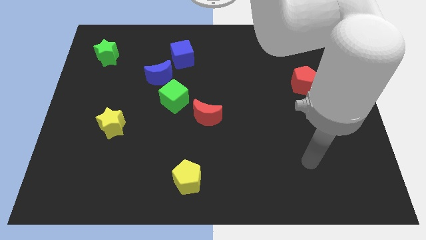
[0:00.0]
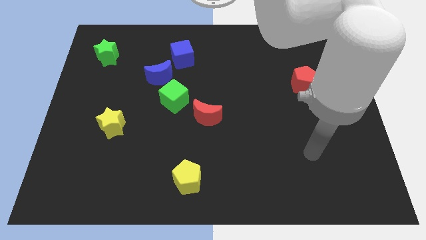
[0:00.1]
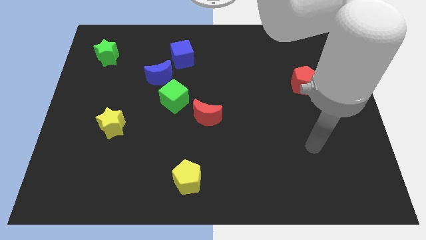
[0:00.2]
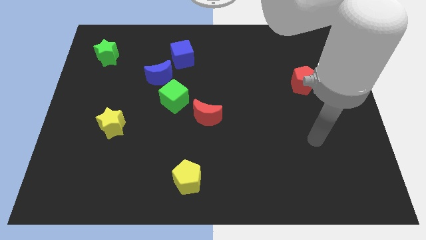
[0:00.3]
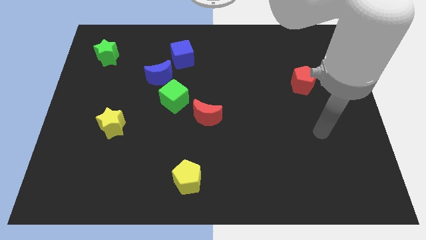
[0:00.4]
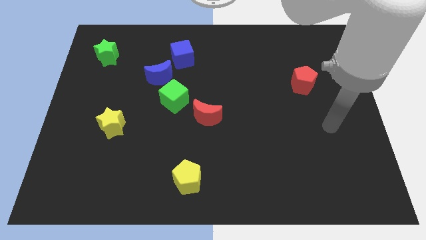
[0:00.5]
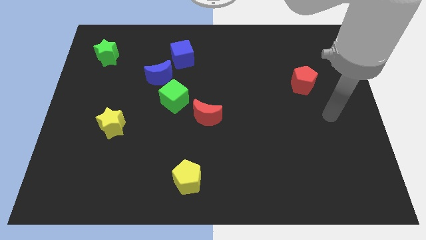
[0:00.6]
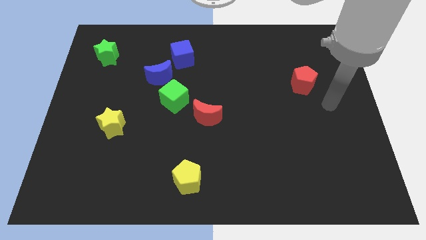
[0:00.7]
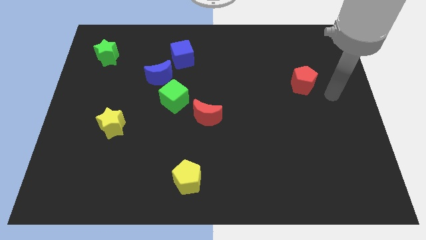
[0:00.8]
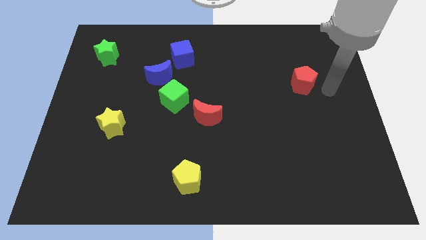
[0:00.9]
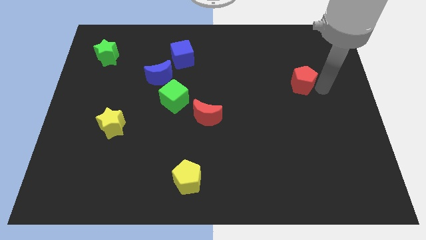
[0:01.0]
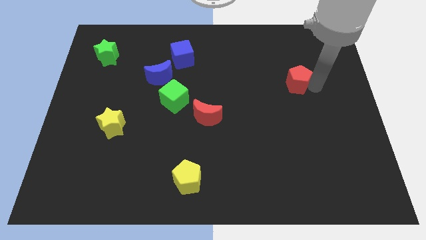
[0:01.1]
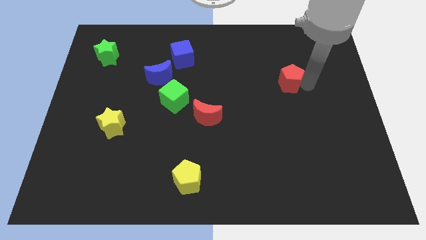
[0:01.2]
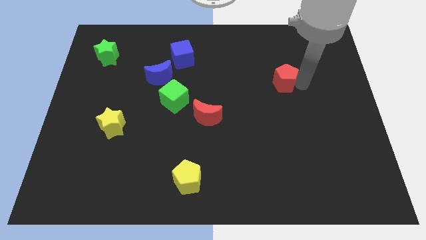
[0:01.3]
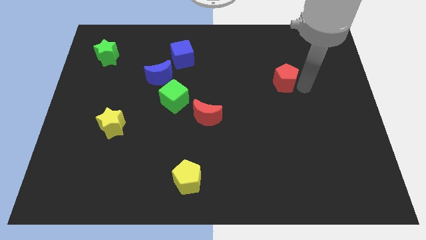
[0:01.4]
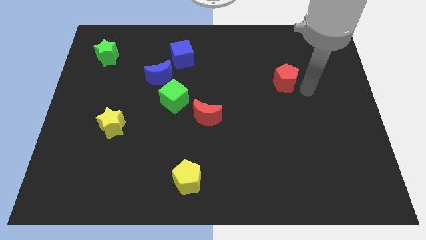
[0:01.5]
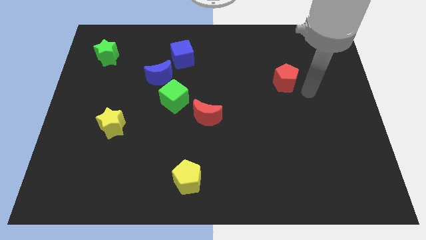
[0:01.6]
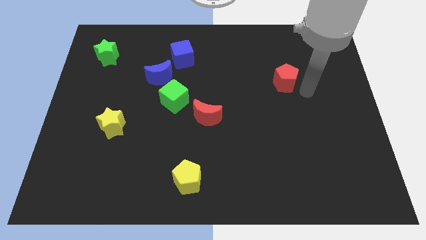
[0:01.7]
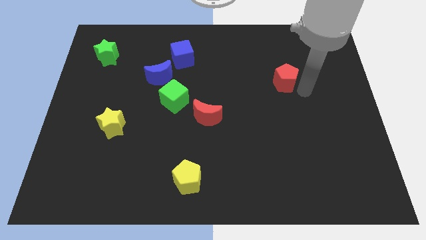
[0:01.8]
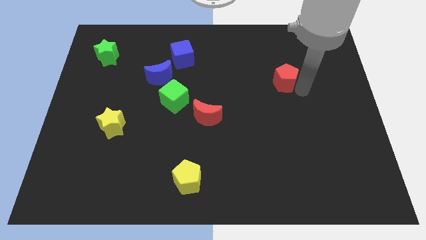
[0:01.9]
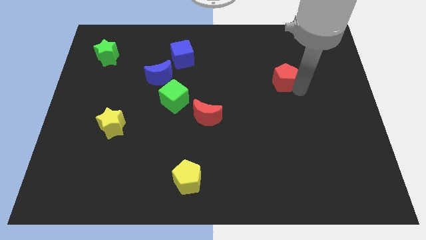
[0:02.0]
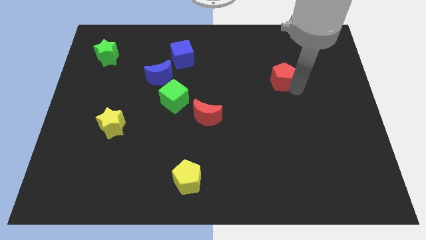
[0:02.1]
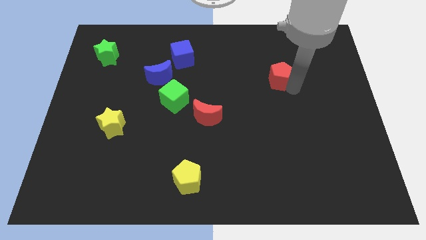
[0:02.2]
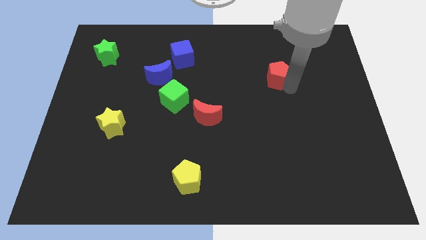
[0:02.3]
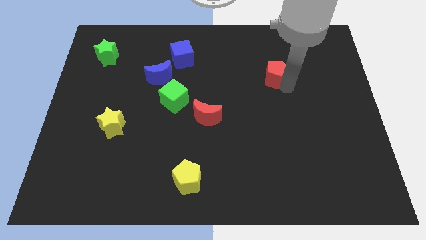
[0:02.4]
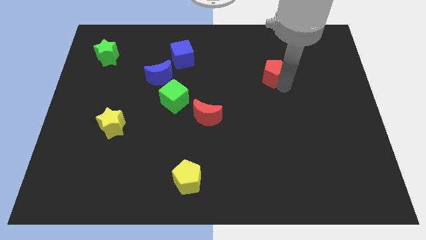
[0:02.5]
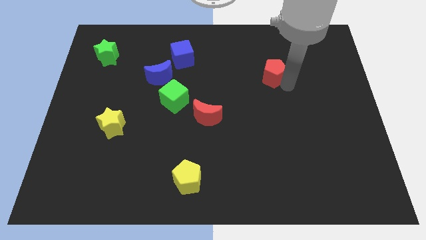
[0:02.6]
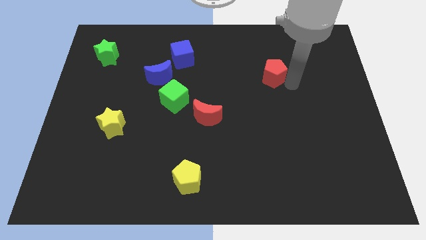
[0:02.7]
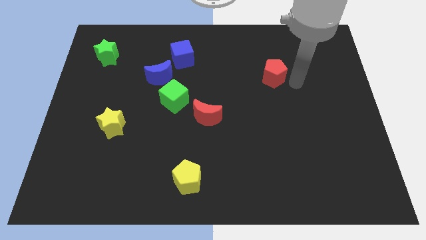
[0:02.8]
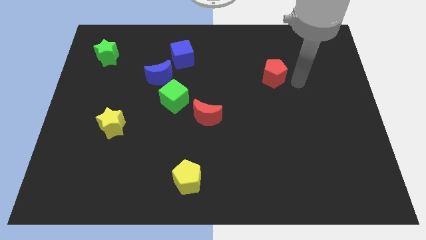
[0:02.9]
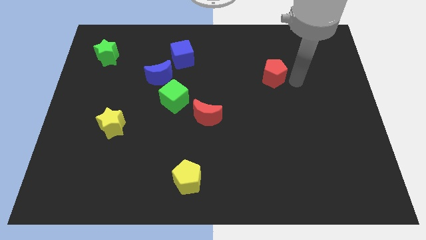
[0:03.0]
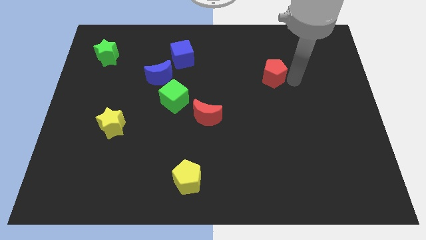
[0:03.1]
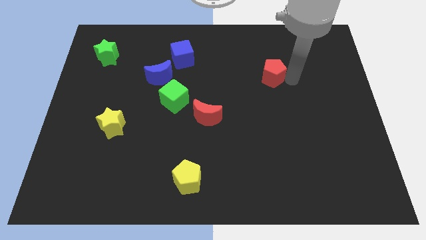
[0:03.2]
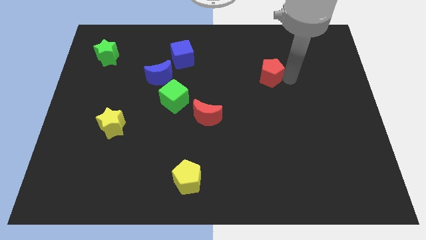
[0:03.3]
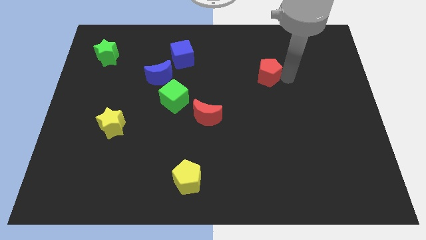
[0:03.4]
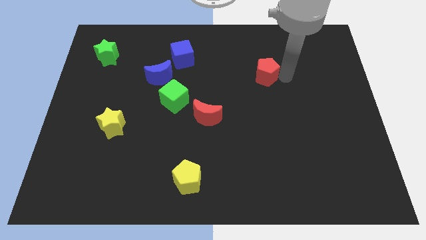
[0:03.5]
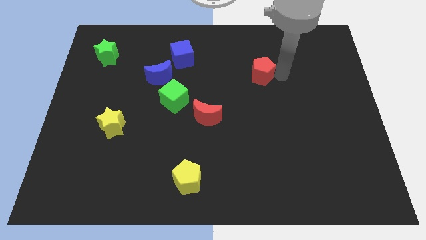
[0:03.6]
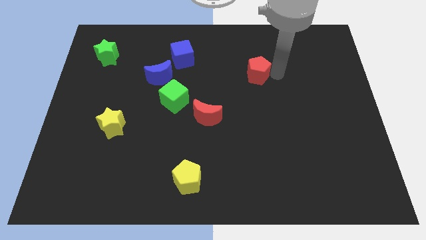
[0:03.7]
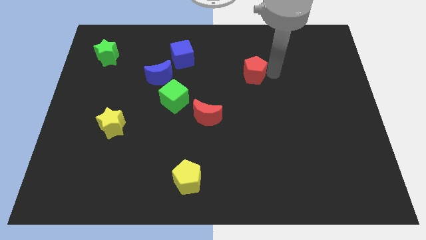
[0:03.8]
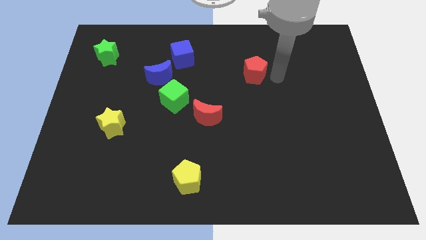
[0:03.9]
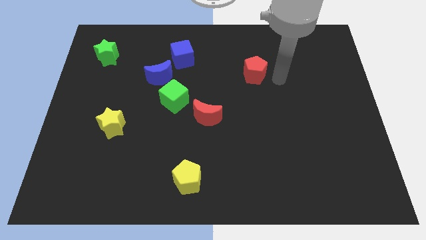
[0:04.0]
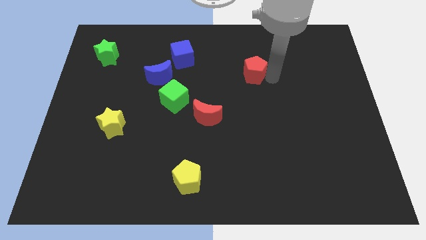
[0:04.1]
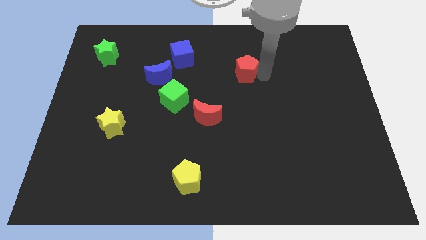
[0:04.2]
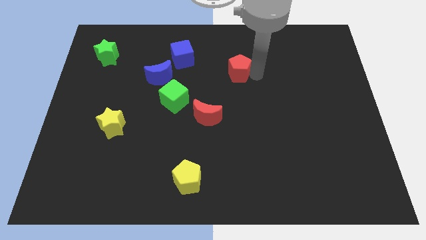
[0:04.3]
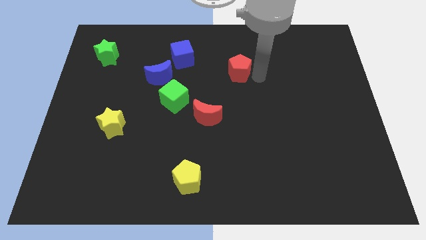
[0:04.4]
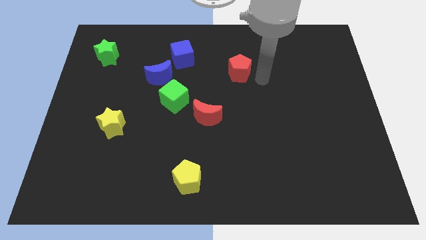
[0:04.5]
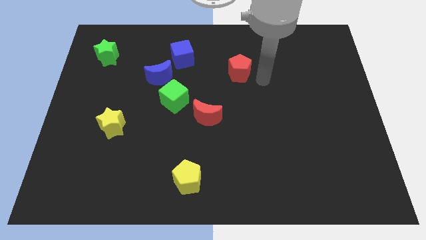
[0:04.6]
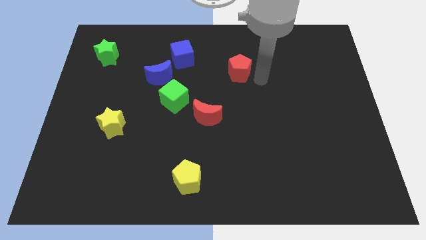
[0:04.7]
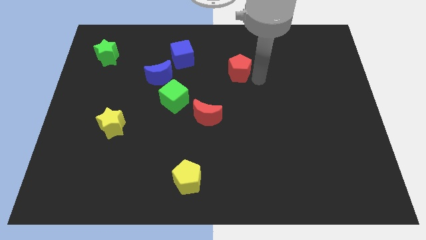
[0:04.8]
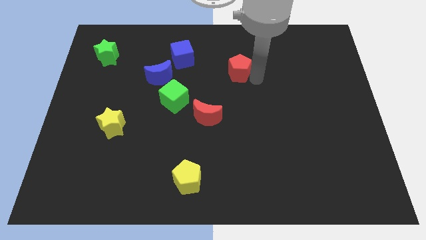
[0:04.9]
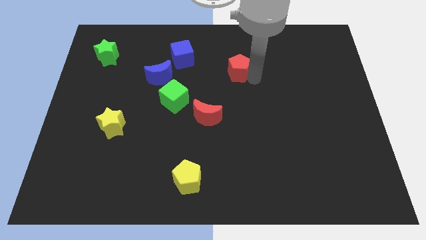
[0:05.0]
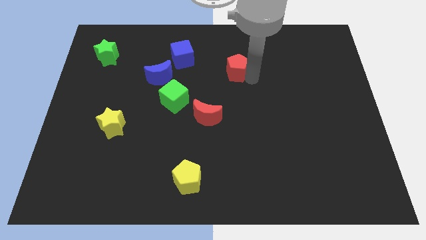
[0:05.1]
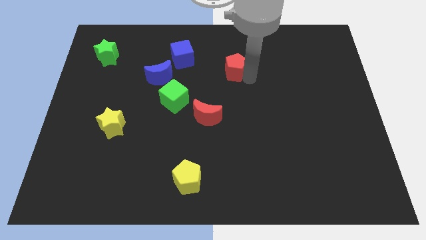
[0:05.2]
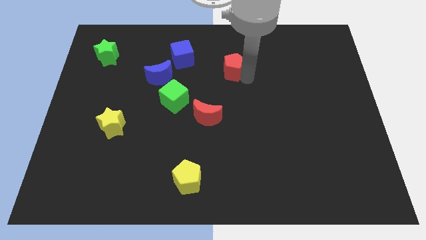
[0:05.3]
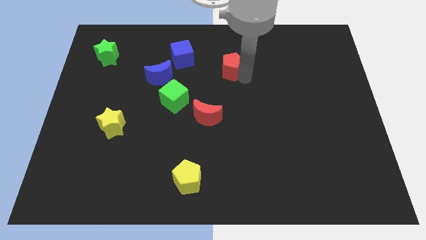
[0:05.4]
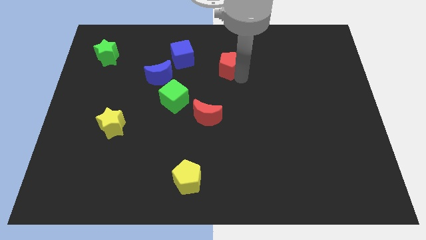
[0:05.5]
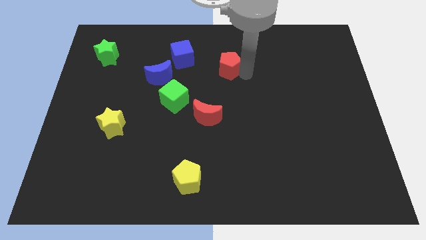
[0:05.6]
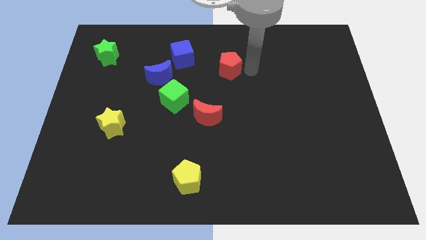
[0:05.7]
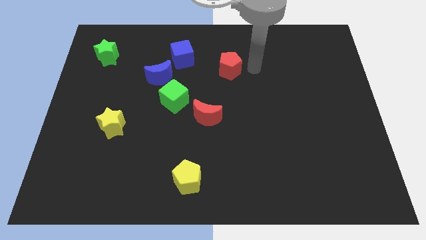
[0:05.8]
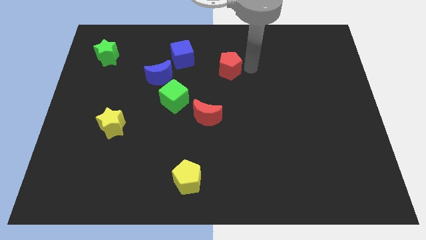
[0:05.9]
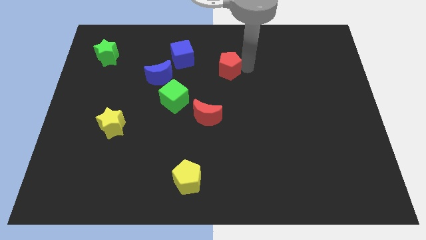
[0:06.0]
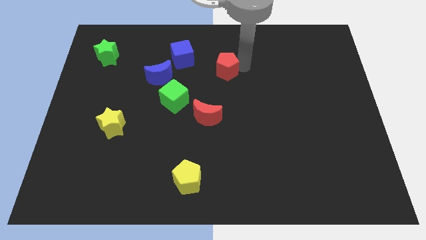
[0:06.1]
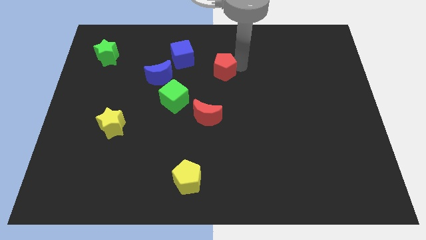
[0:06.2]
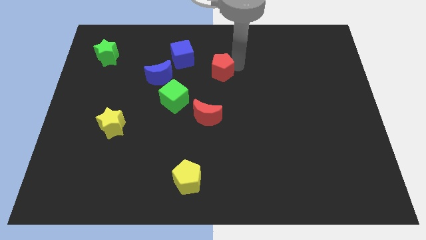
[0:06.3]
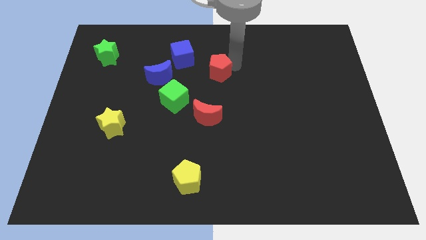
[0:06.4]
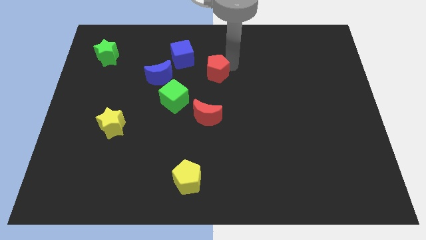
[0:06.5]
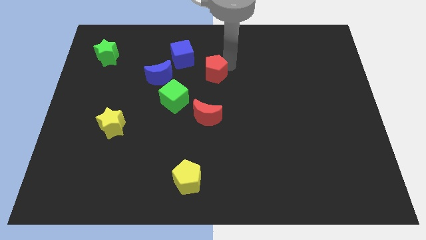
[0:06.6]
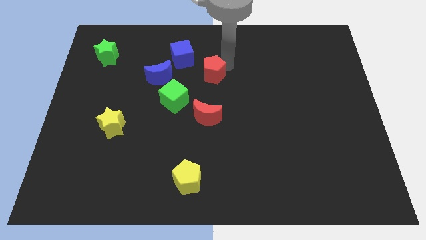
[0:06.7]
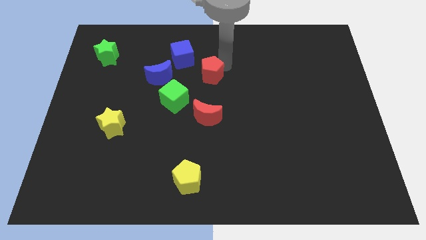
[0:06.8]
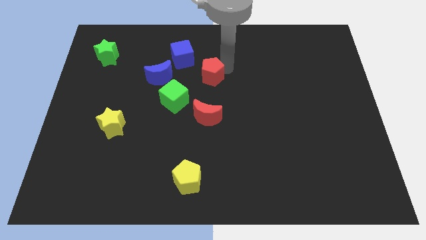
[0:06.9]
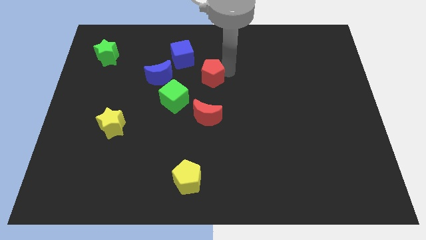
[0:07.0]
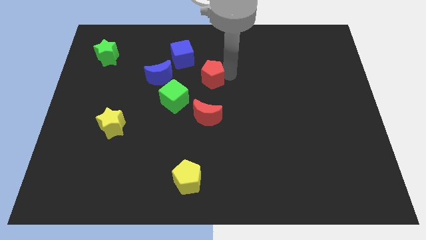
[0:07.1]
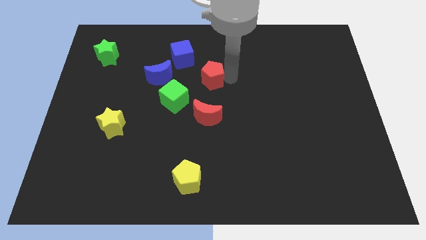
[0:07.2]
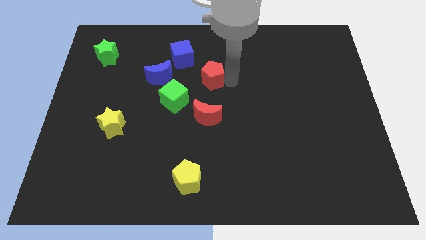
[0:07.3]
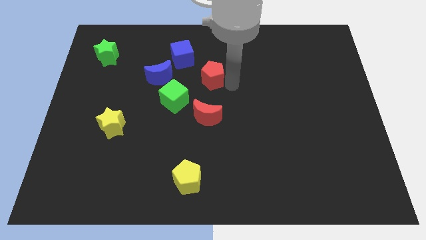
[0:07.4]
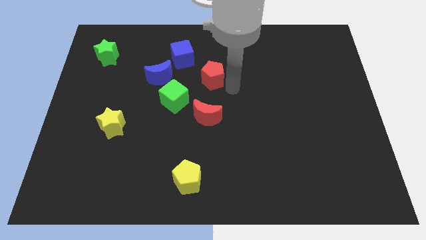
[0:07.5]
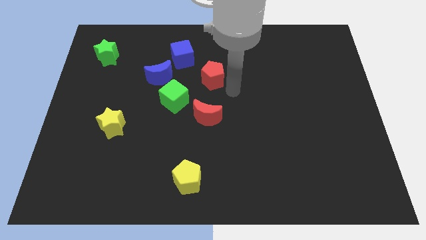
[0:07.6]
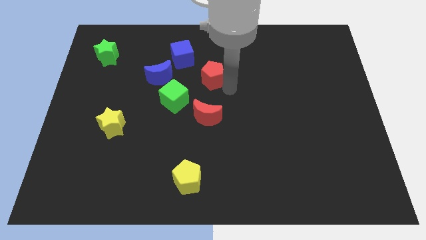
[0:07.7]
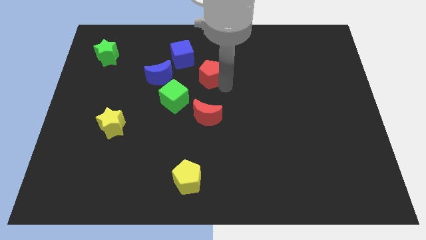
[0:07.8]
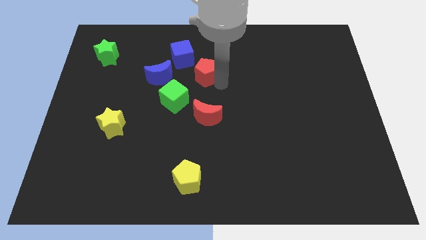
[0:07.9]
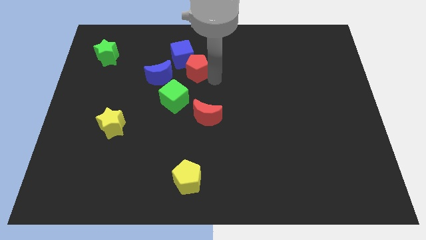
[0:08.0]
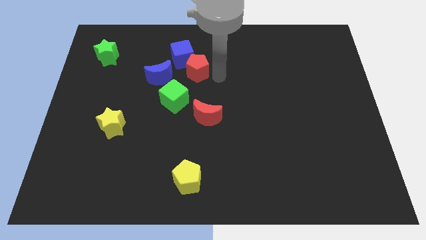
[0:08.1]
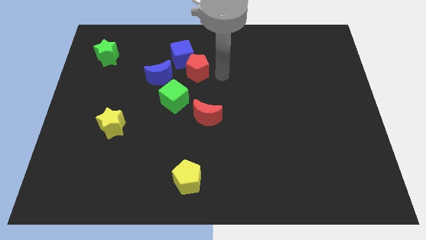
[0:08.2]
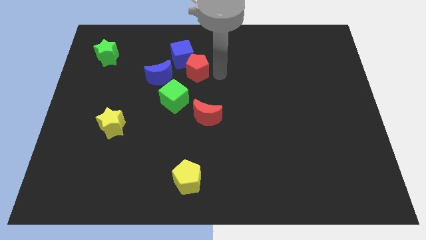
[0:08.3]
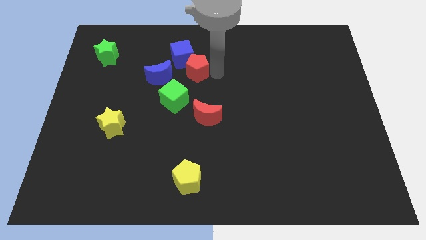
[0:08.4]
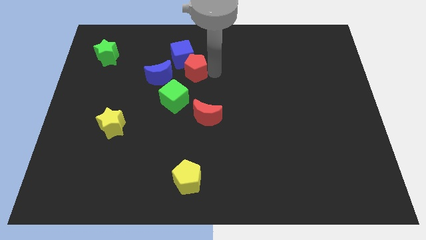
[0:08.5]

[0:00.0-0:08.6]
slide the red pentagon to the top side of the green cube
